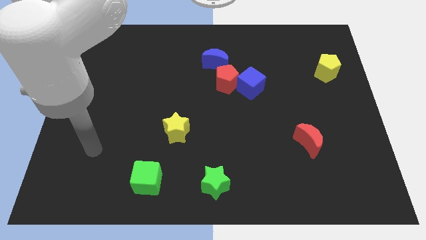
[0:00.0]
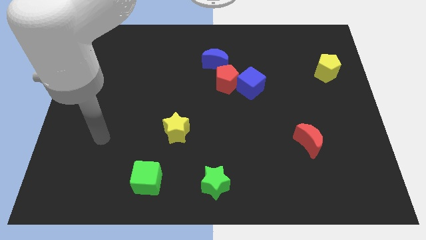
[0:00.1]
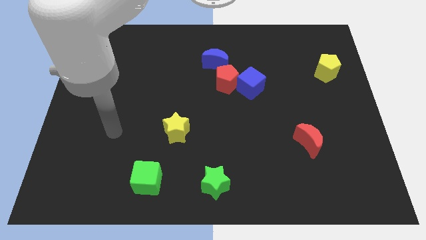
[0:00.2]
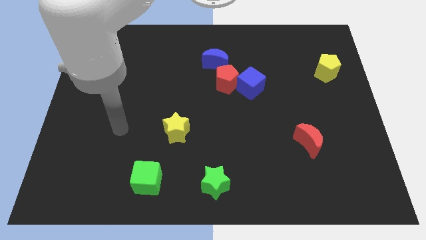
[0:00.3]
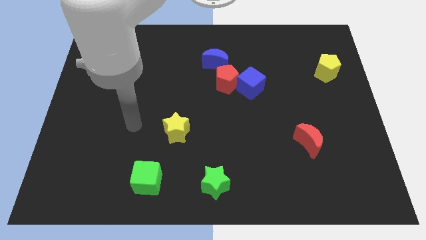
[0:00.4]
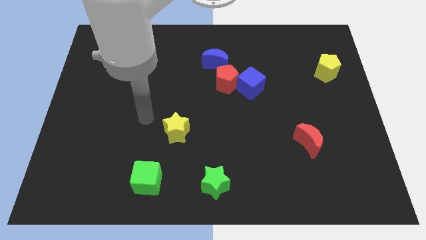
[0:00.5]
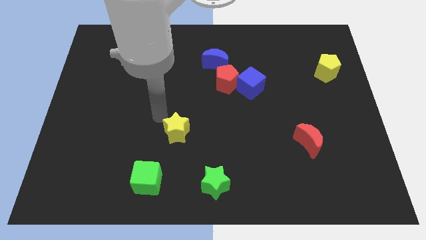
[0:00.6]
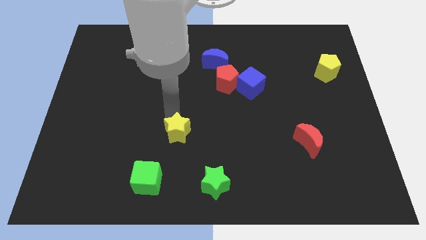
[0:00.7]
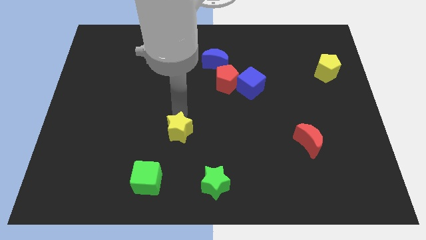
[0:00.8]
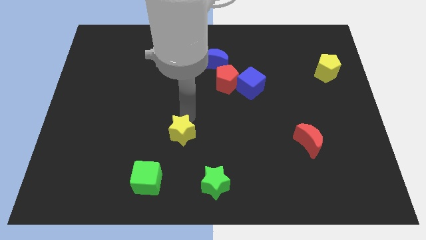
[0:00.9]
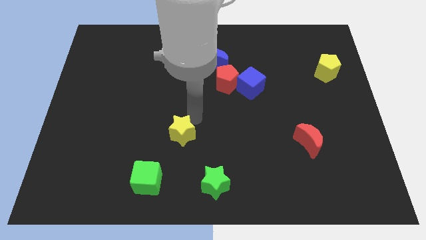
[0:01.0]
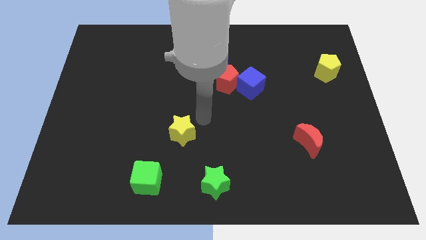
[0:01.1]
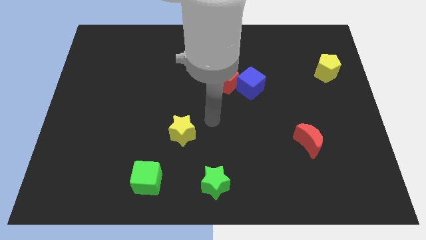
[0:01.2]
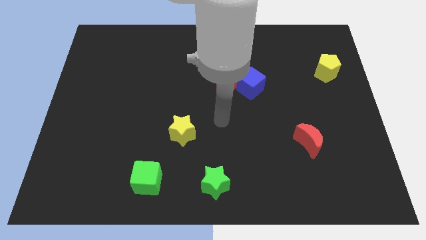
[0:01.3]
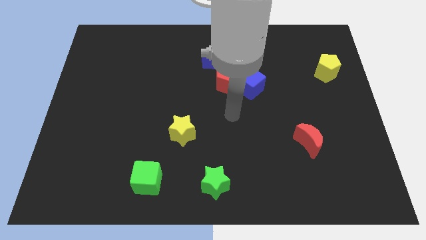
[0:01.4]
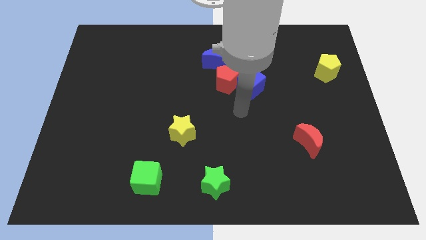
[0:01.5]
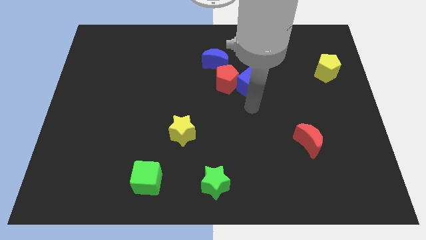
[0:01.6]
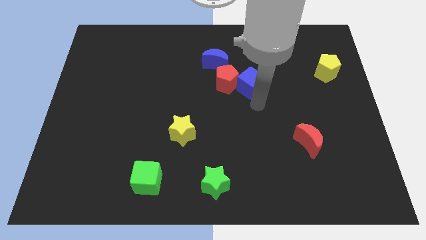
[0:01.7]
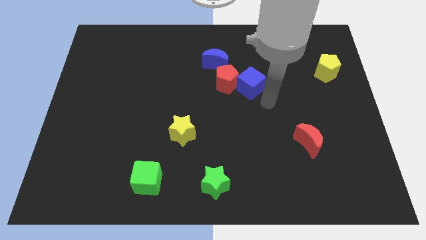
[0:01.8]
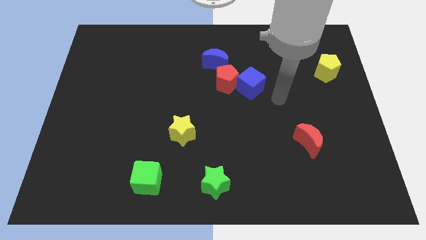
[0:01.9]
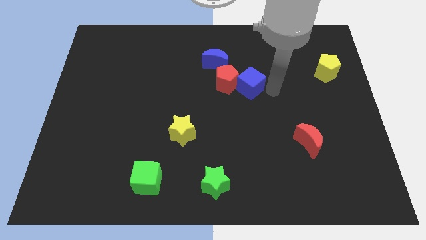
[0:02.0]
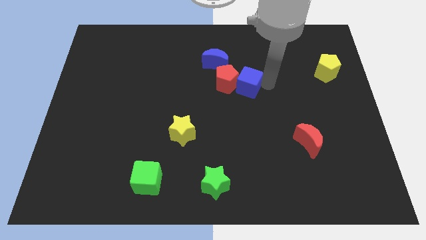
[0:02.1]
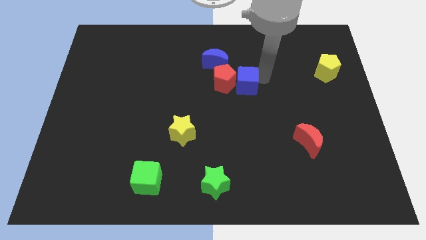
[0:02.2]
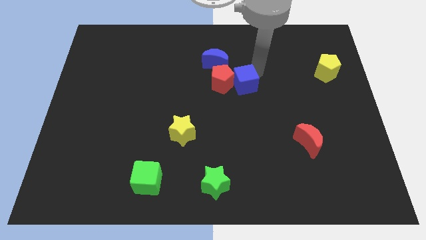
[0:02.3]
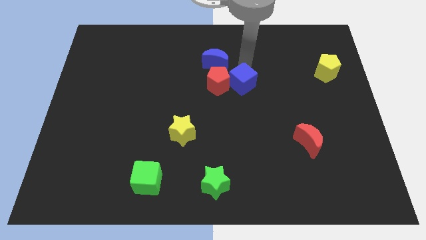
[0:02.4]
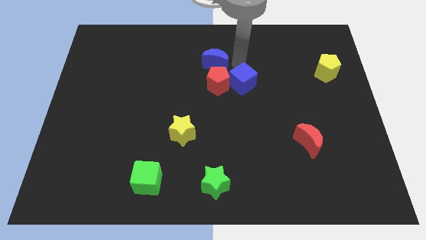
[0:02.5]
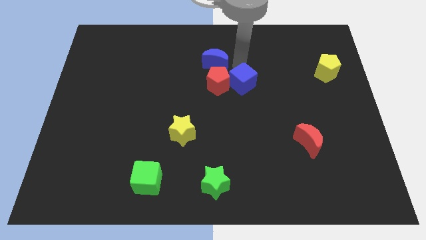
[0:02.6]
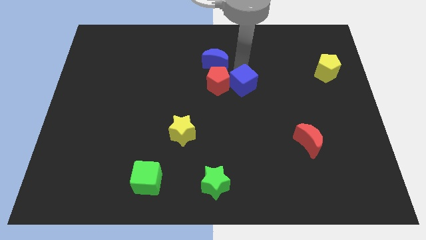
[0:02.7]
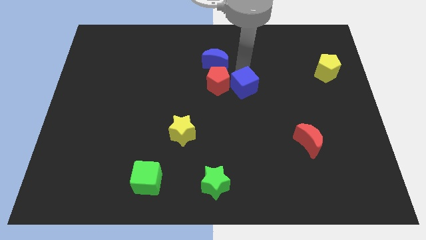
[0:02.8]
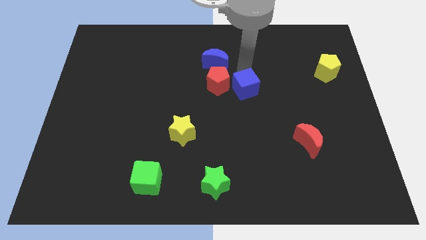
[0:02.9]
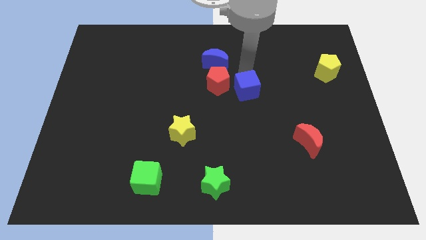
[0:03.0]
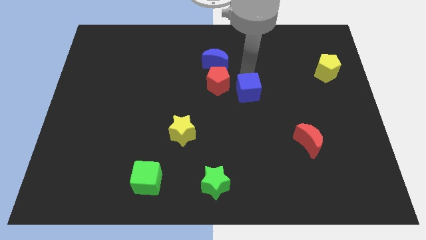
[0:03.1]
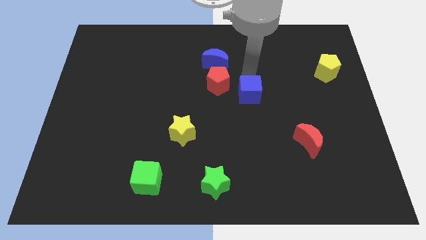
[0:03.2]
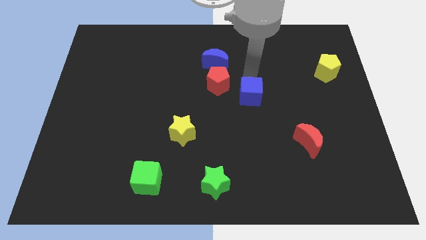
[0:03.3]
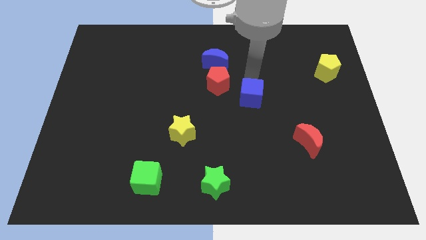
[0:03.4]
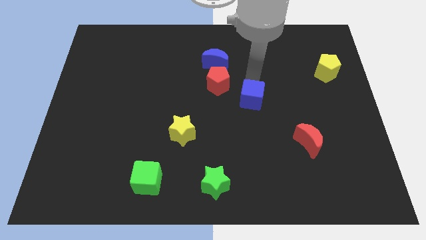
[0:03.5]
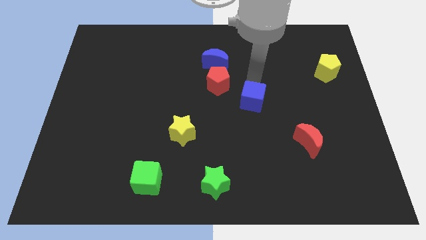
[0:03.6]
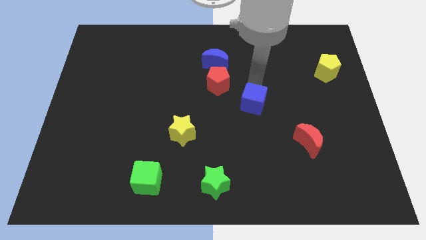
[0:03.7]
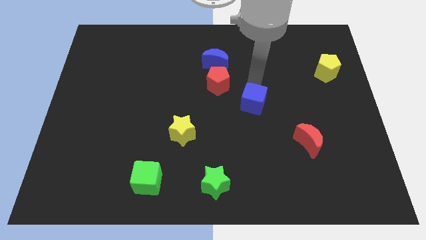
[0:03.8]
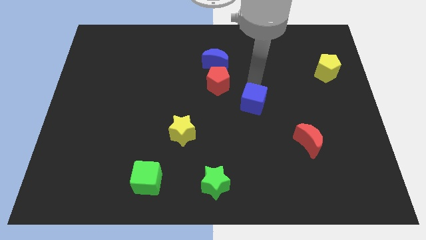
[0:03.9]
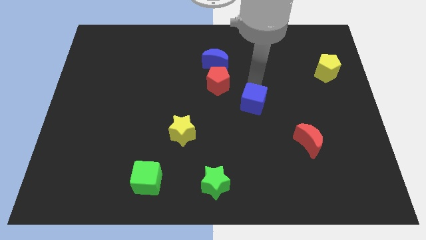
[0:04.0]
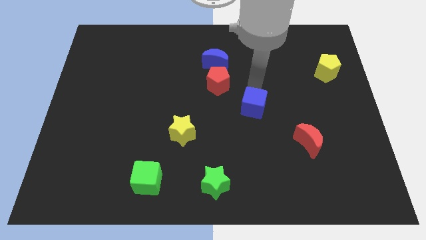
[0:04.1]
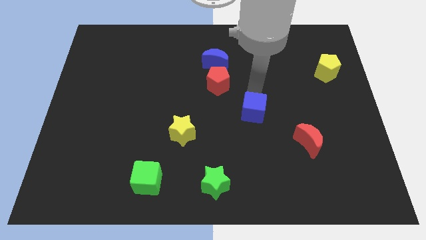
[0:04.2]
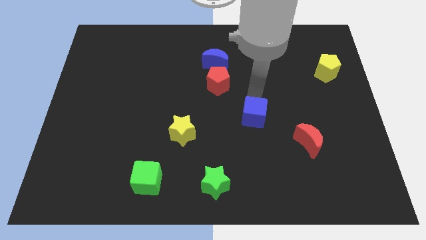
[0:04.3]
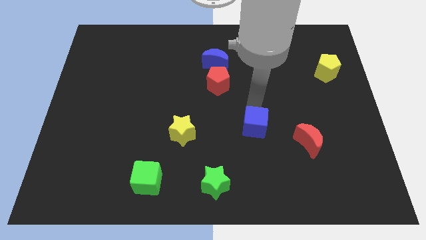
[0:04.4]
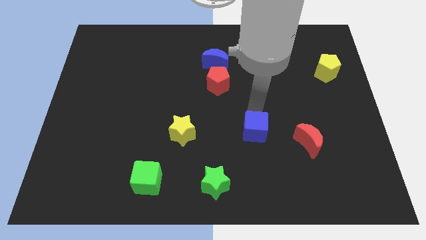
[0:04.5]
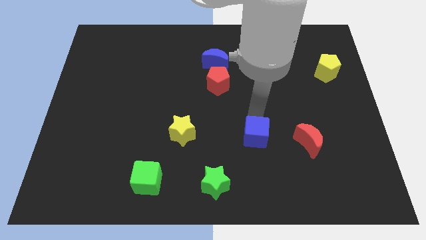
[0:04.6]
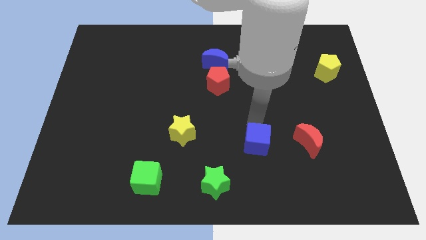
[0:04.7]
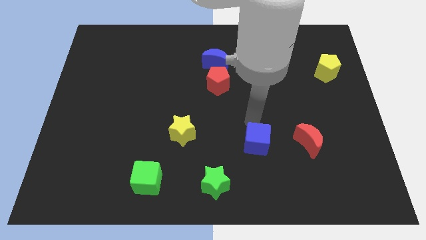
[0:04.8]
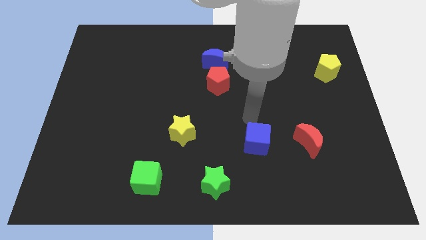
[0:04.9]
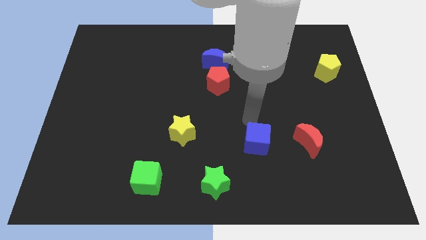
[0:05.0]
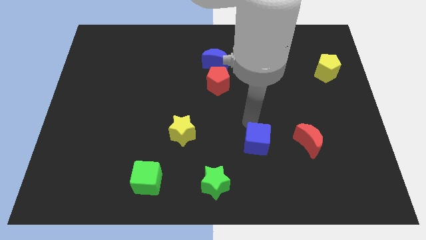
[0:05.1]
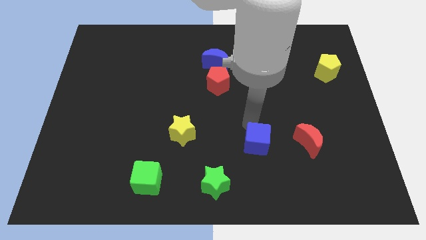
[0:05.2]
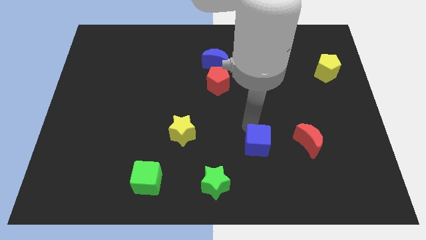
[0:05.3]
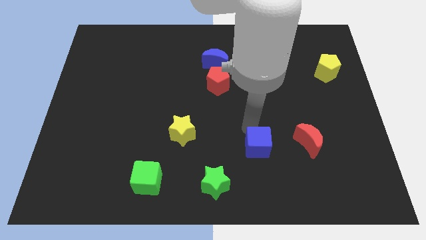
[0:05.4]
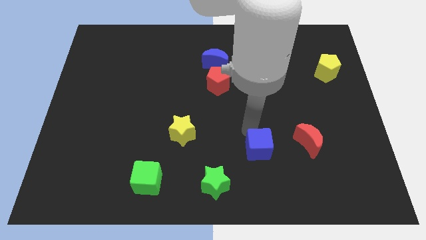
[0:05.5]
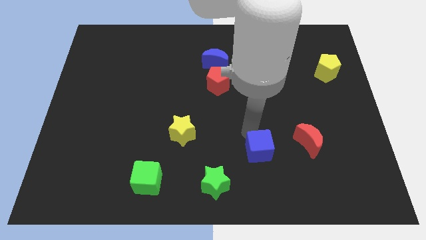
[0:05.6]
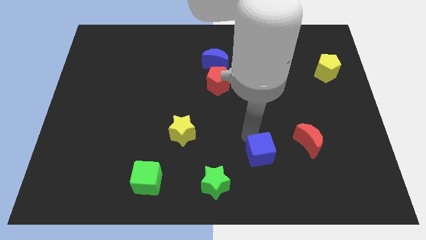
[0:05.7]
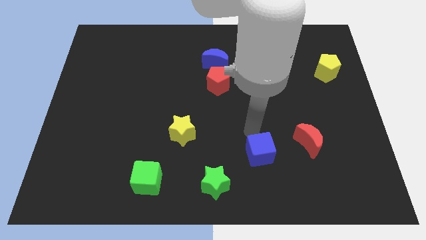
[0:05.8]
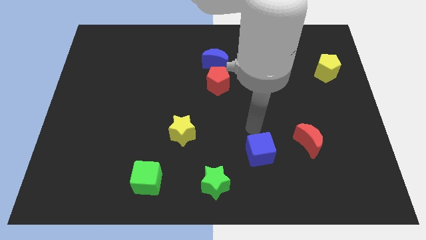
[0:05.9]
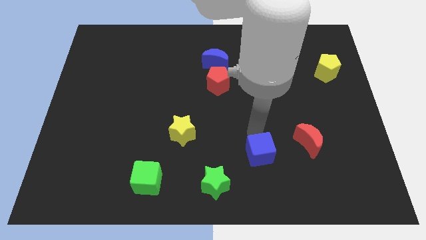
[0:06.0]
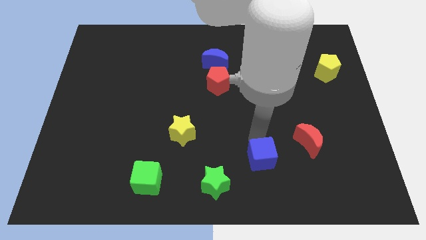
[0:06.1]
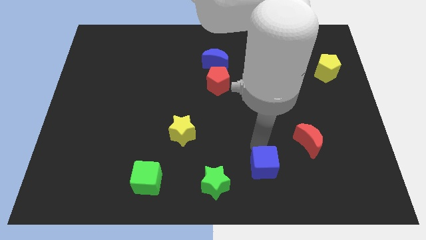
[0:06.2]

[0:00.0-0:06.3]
move the blue cube to the right side of the green star

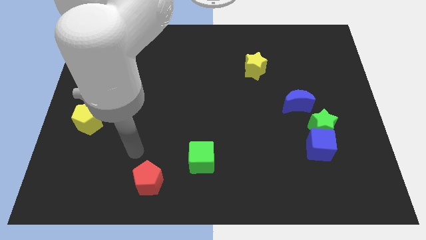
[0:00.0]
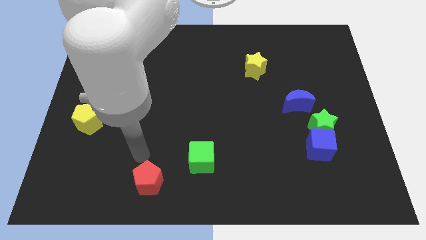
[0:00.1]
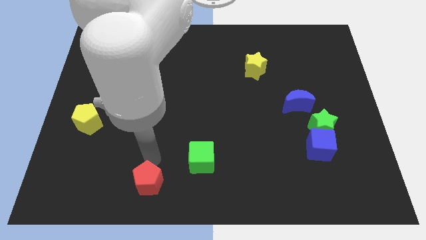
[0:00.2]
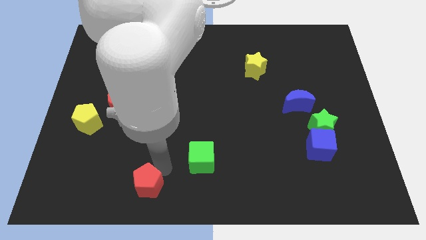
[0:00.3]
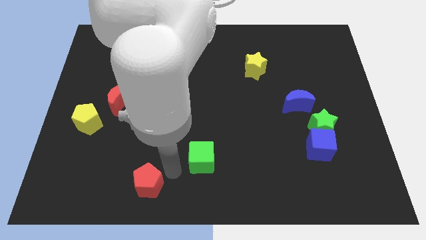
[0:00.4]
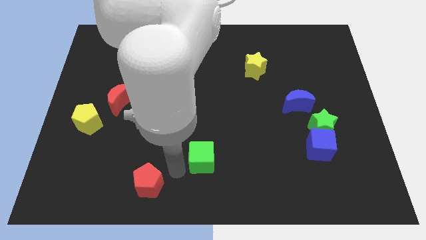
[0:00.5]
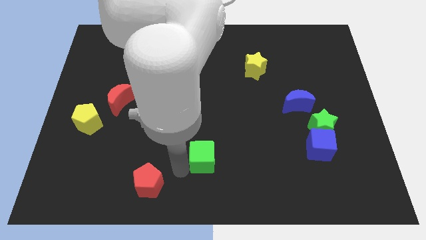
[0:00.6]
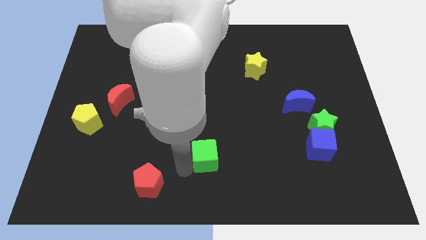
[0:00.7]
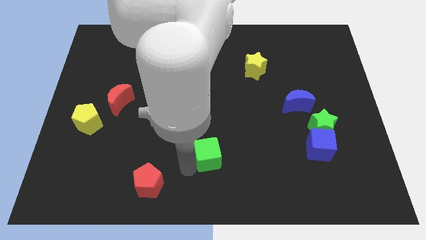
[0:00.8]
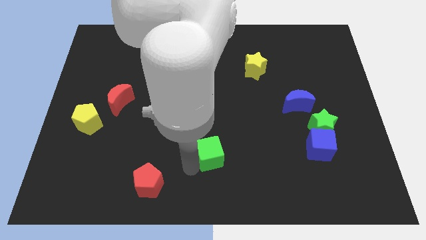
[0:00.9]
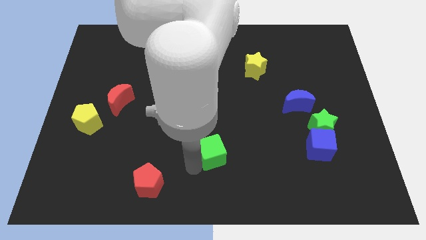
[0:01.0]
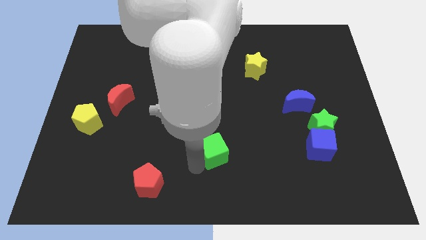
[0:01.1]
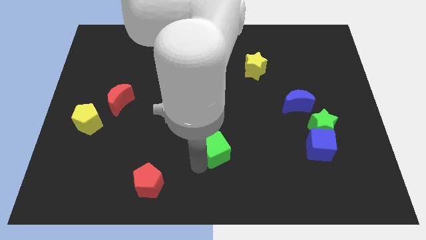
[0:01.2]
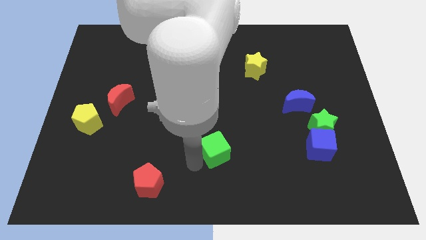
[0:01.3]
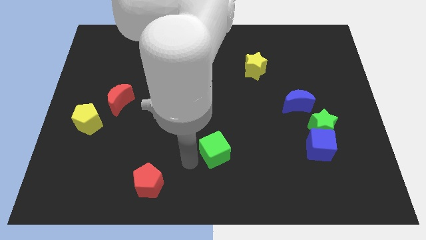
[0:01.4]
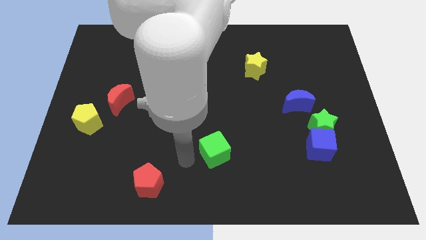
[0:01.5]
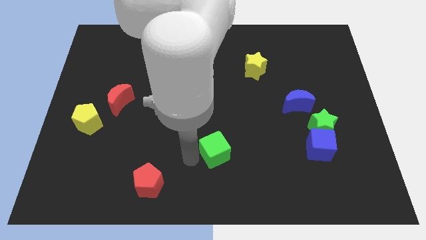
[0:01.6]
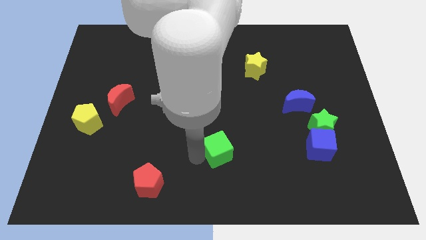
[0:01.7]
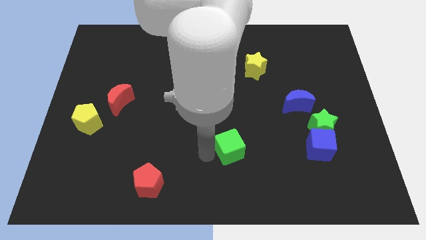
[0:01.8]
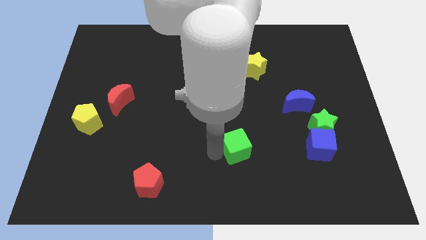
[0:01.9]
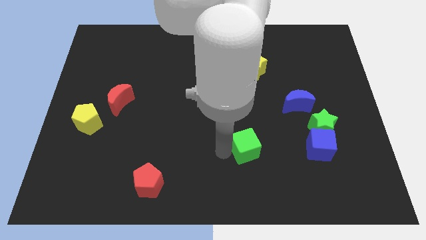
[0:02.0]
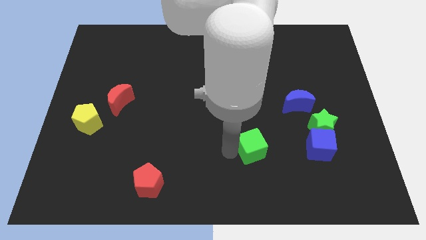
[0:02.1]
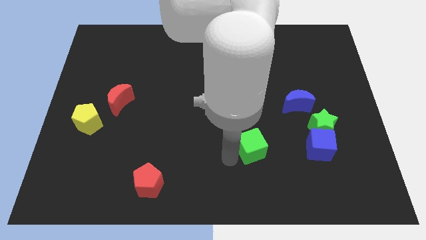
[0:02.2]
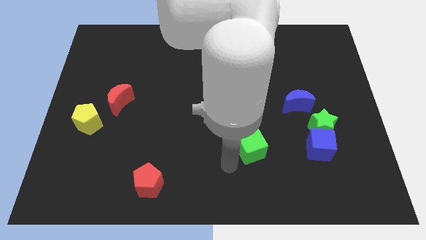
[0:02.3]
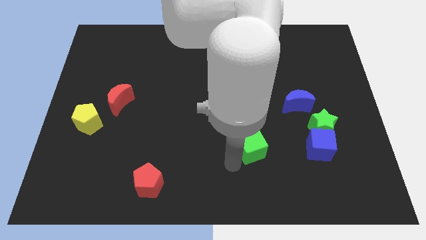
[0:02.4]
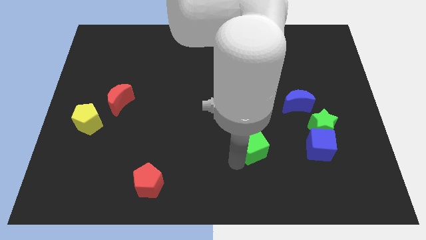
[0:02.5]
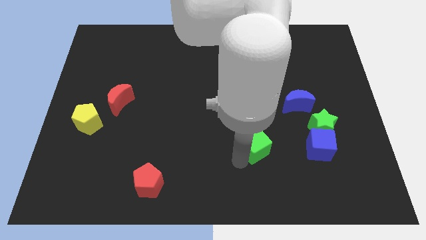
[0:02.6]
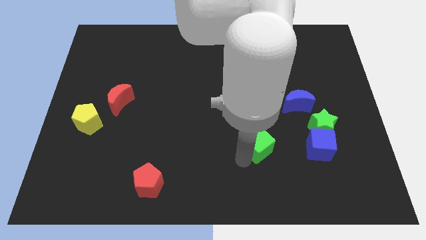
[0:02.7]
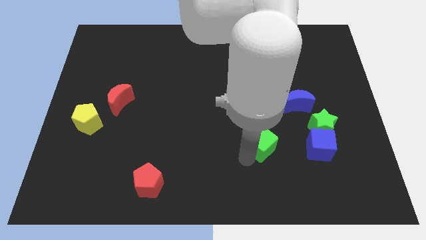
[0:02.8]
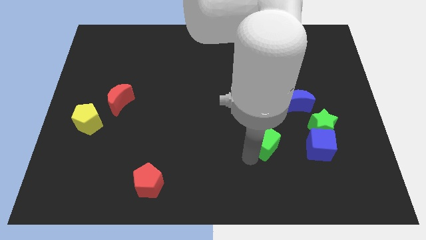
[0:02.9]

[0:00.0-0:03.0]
push the green cube left of the green star
